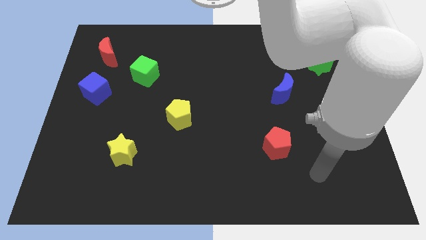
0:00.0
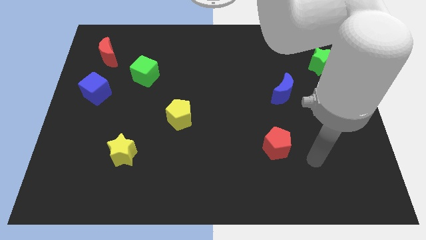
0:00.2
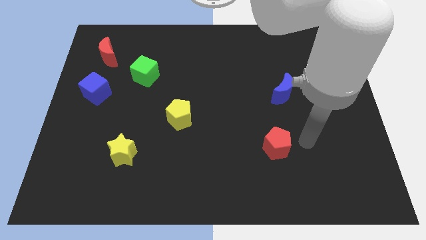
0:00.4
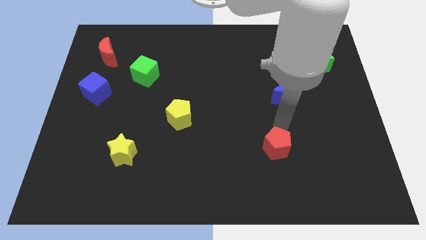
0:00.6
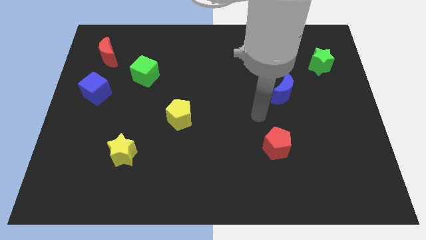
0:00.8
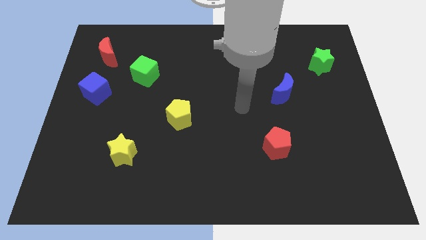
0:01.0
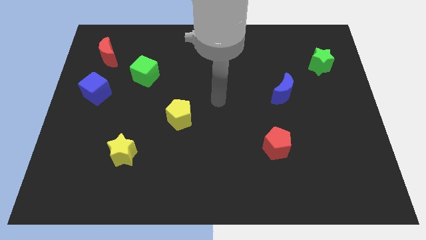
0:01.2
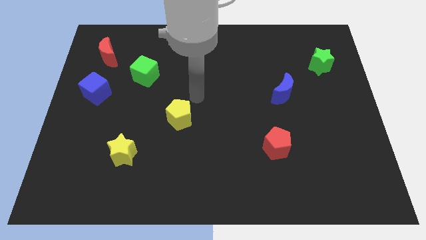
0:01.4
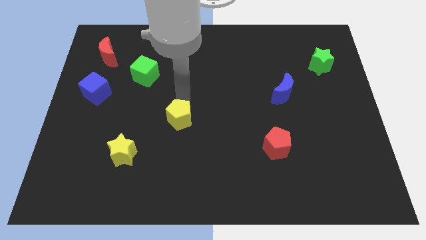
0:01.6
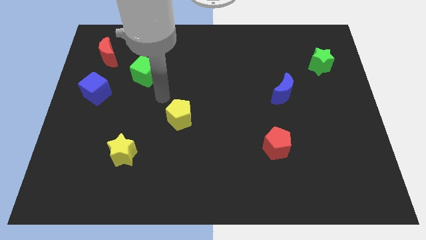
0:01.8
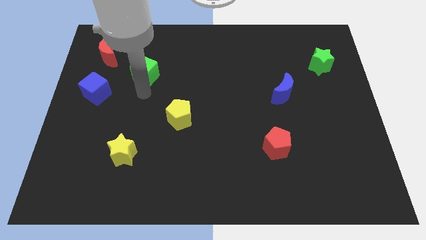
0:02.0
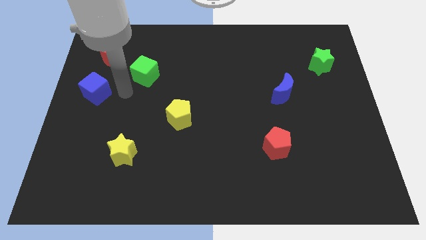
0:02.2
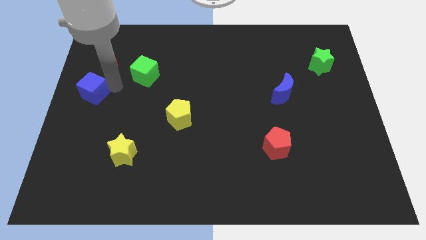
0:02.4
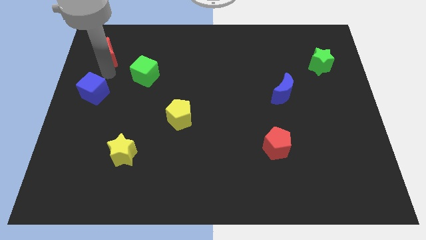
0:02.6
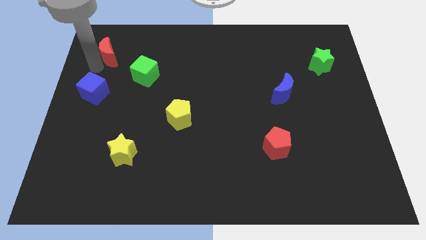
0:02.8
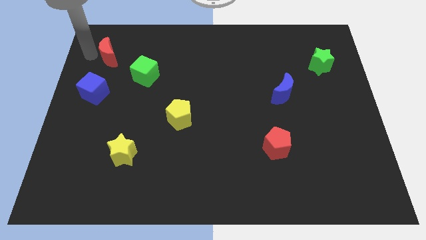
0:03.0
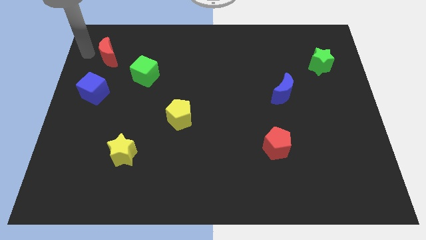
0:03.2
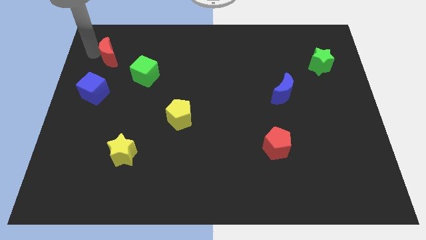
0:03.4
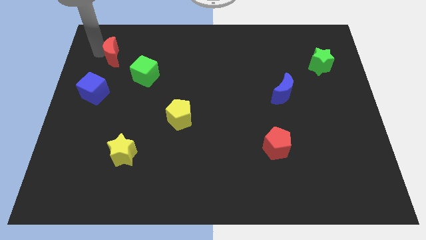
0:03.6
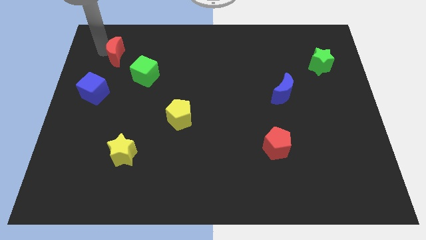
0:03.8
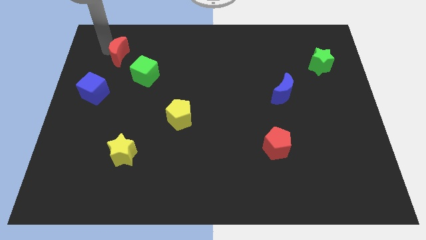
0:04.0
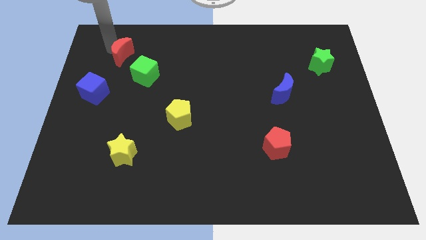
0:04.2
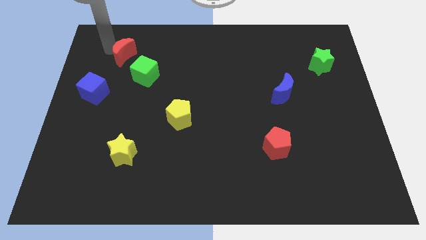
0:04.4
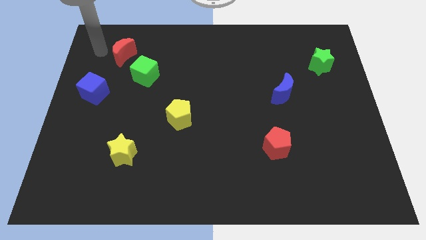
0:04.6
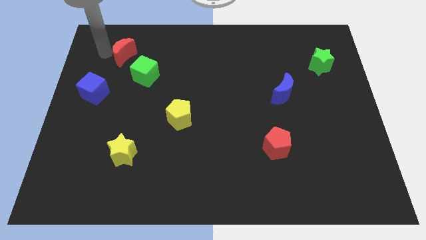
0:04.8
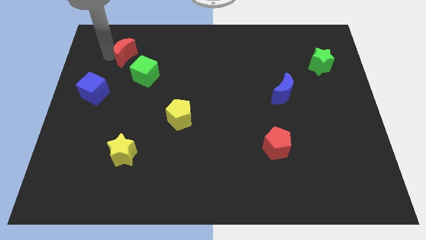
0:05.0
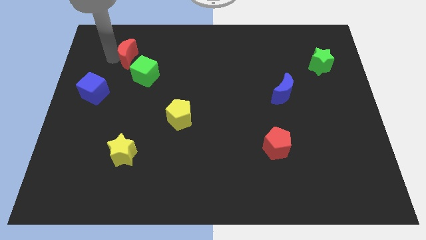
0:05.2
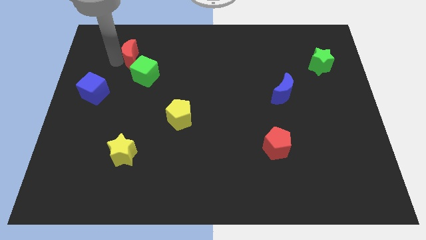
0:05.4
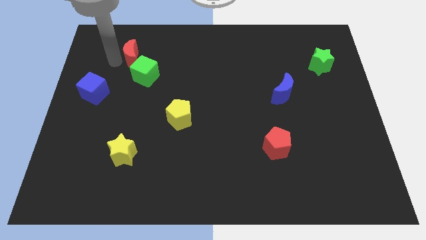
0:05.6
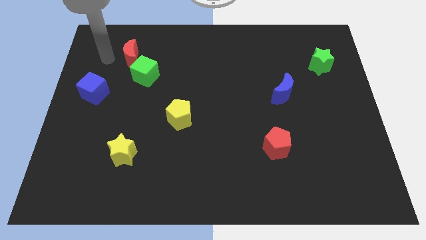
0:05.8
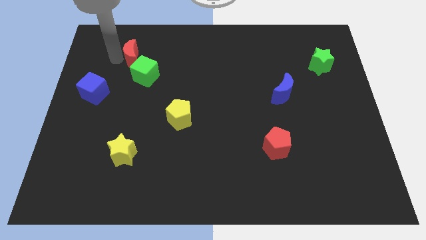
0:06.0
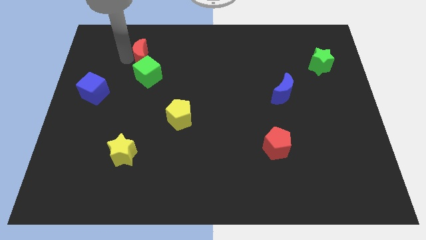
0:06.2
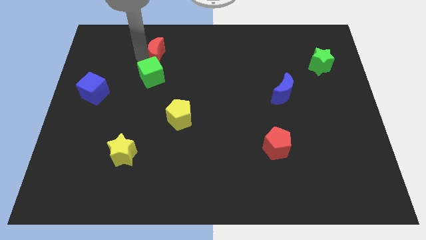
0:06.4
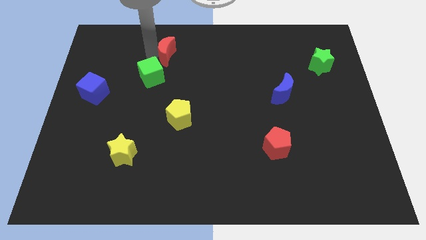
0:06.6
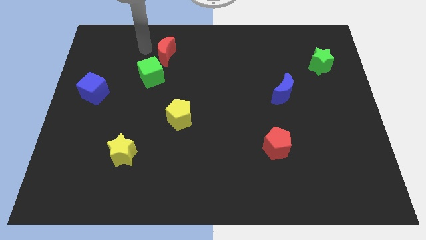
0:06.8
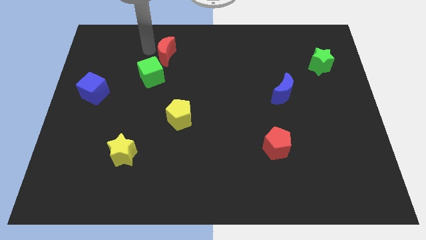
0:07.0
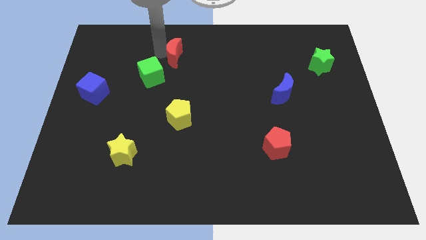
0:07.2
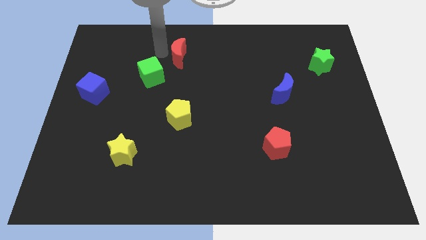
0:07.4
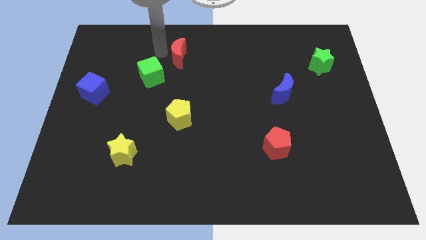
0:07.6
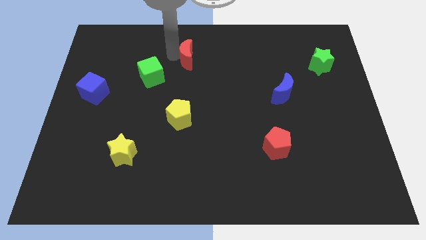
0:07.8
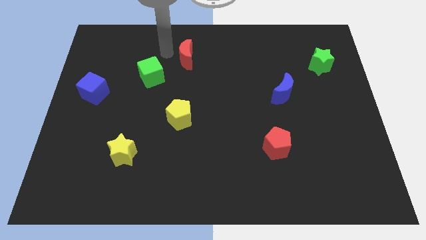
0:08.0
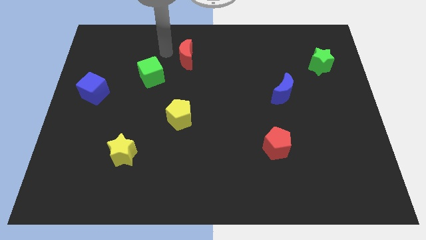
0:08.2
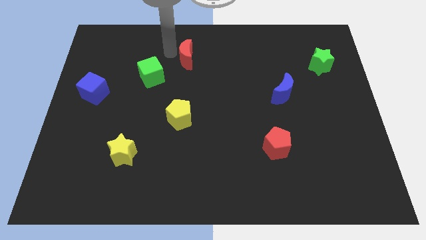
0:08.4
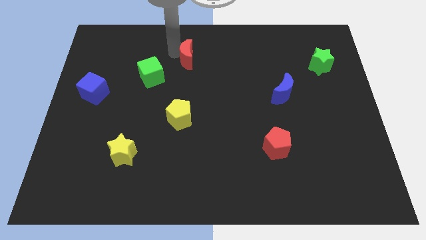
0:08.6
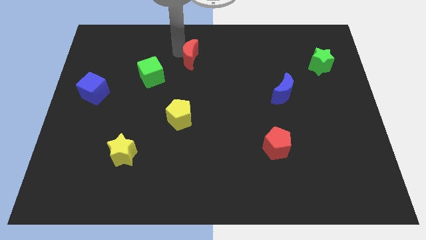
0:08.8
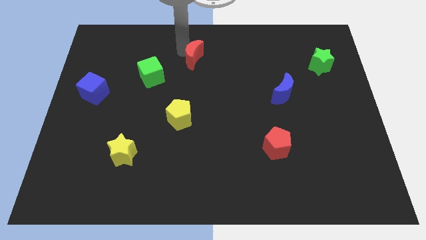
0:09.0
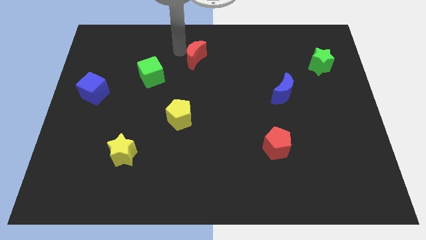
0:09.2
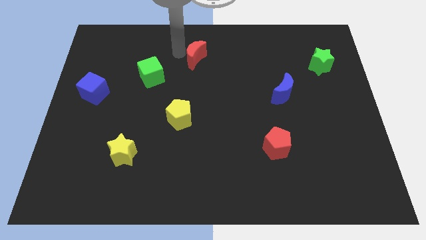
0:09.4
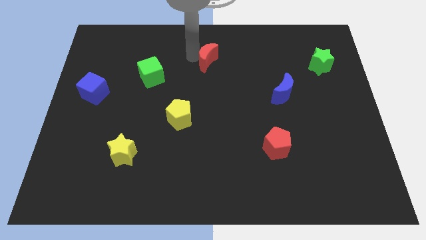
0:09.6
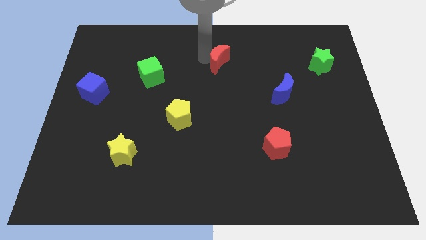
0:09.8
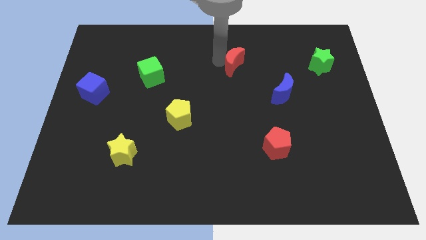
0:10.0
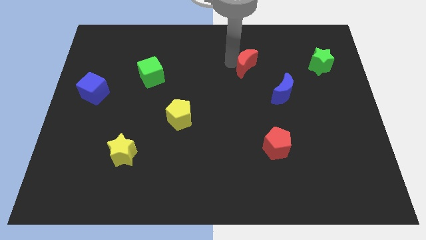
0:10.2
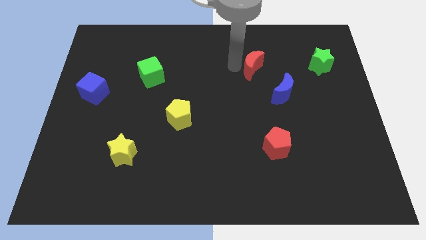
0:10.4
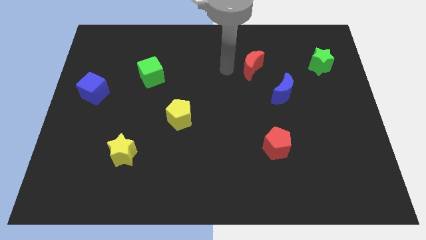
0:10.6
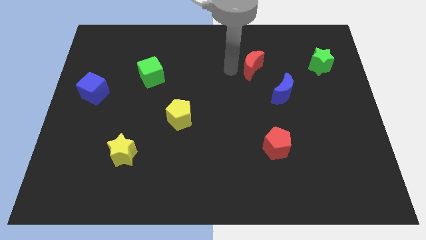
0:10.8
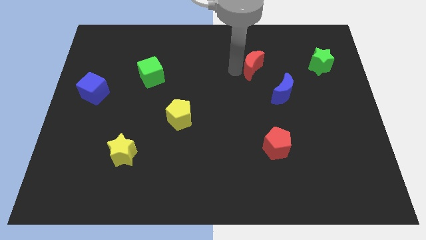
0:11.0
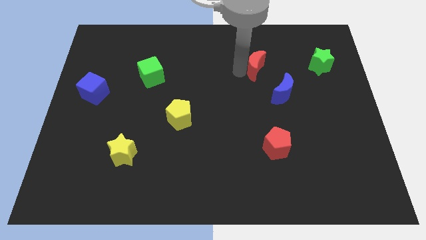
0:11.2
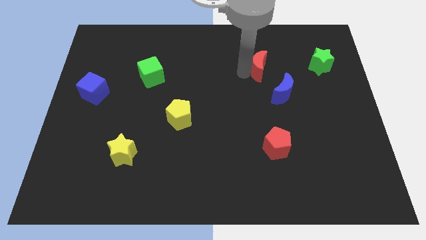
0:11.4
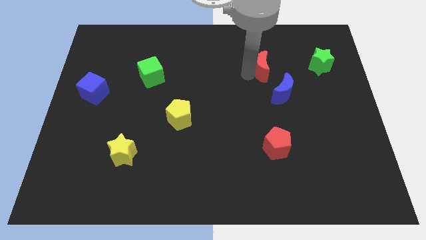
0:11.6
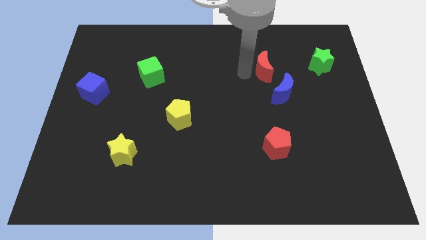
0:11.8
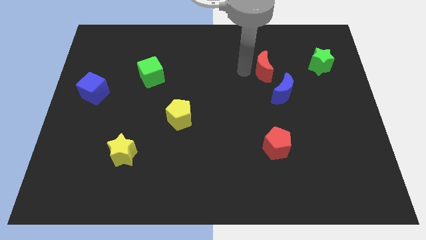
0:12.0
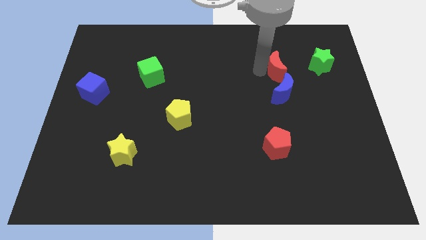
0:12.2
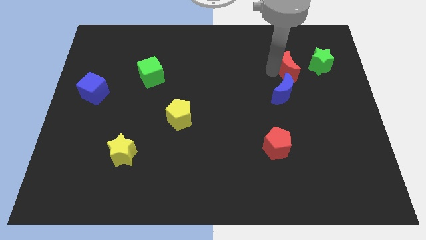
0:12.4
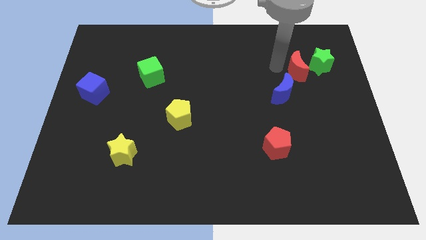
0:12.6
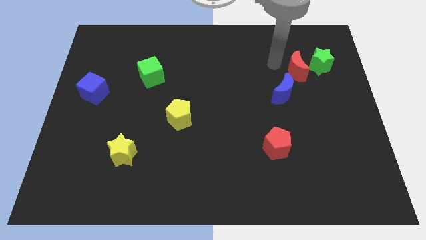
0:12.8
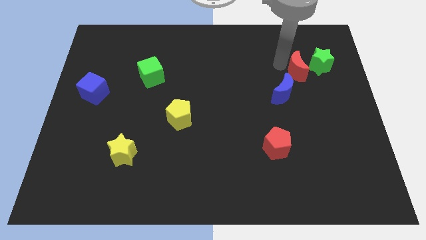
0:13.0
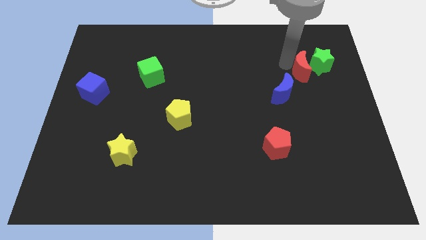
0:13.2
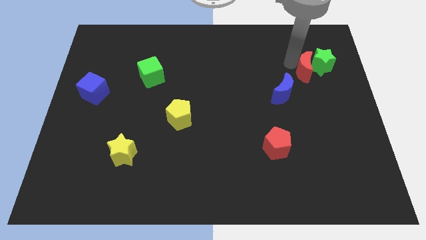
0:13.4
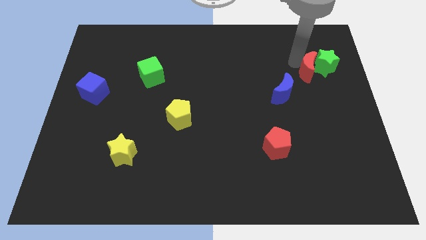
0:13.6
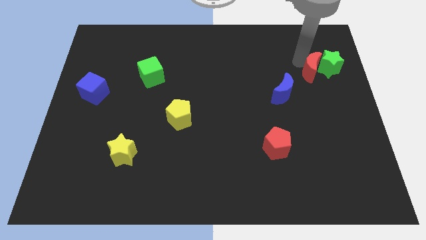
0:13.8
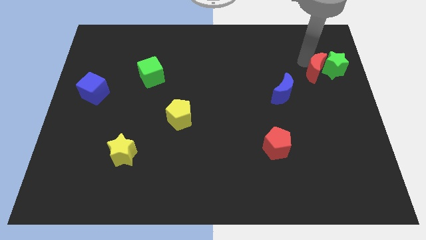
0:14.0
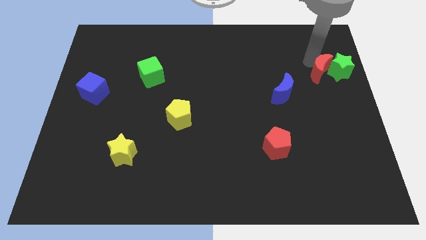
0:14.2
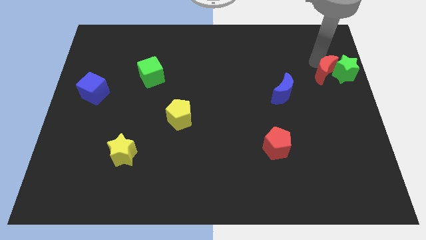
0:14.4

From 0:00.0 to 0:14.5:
put the red moon to the center right

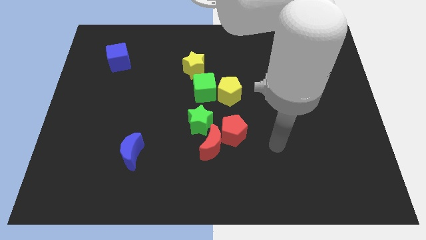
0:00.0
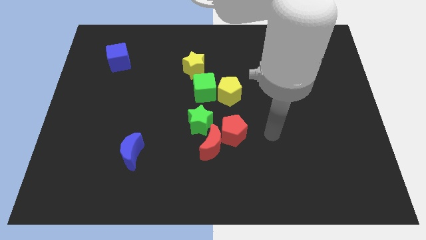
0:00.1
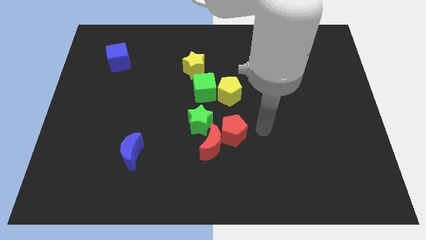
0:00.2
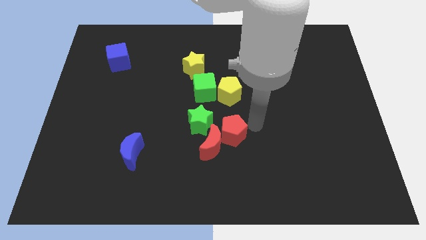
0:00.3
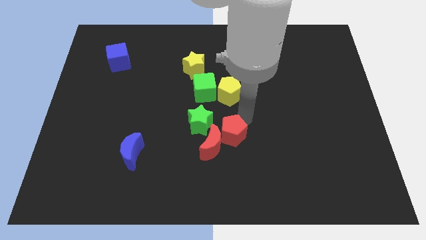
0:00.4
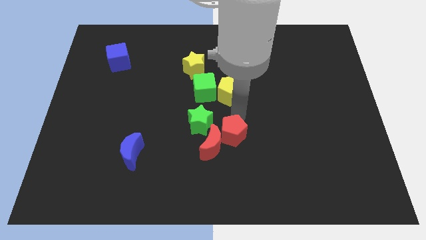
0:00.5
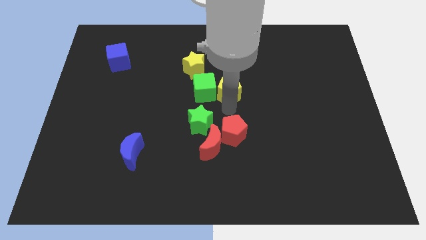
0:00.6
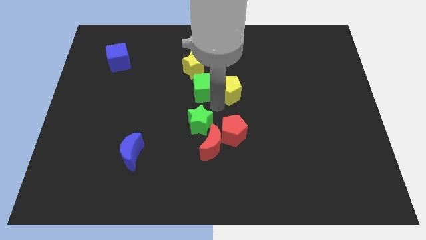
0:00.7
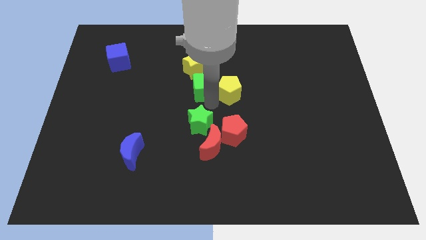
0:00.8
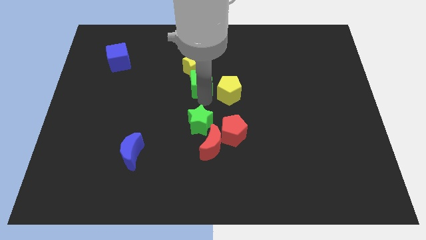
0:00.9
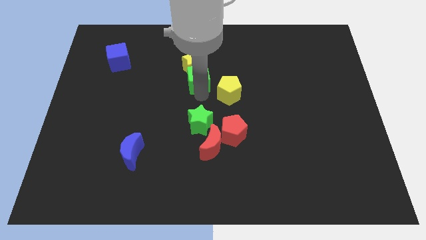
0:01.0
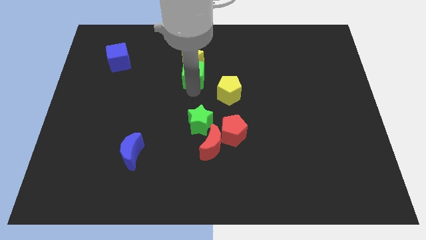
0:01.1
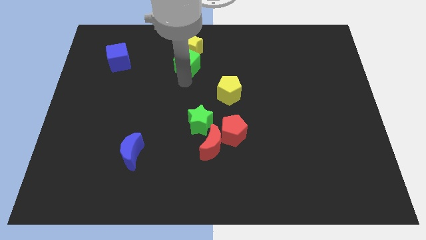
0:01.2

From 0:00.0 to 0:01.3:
put the yellow star to the top
